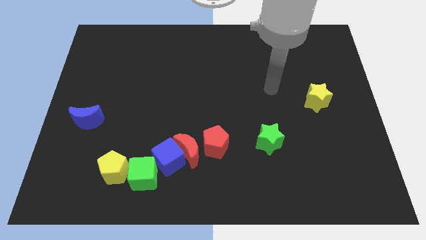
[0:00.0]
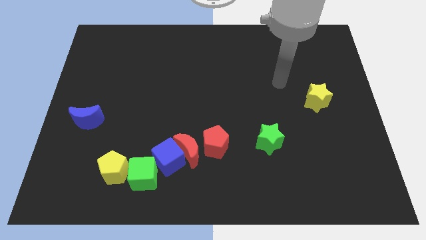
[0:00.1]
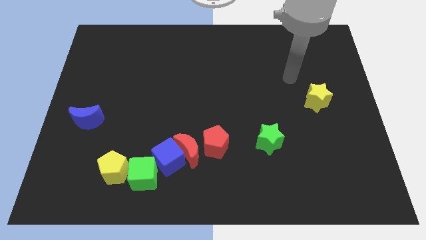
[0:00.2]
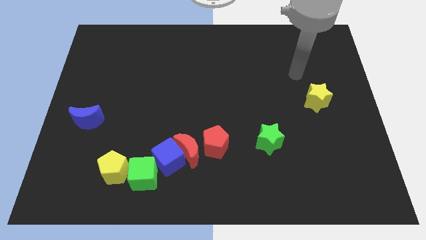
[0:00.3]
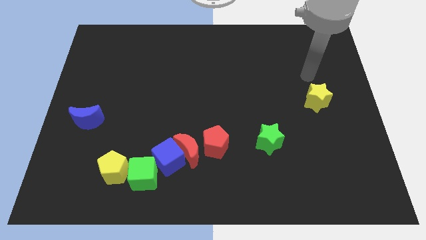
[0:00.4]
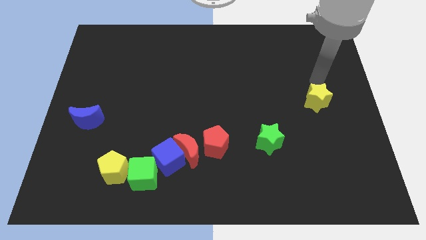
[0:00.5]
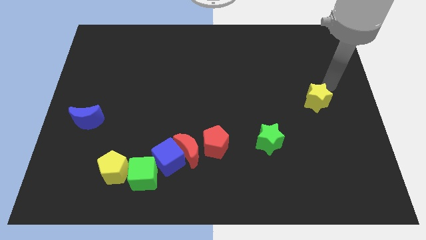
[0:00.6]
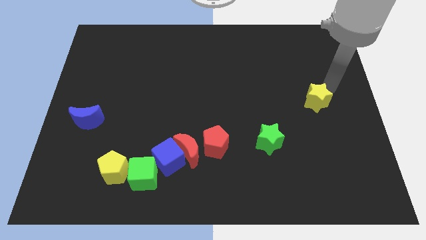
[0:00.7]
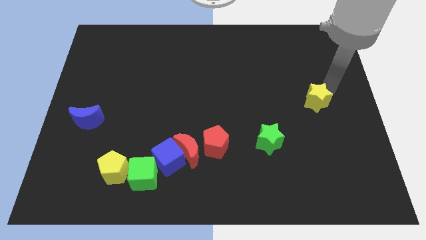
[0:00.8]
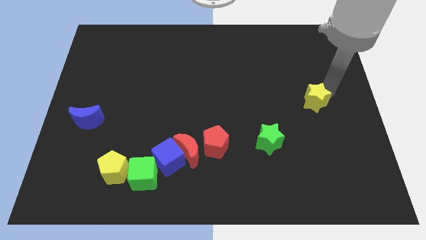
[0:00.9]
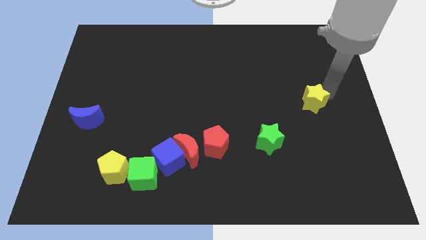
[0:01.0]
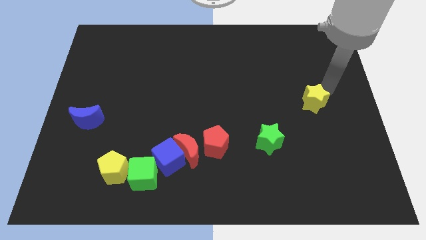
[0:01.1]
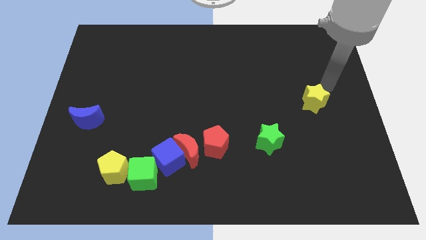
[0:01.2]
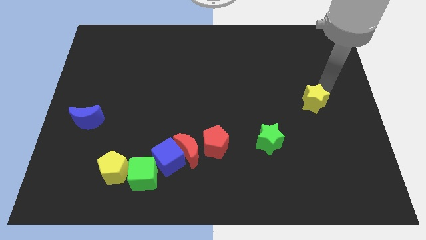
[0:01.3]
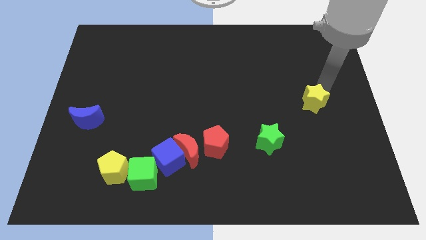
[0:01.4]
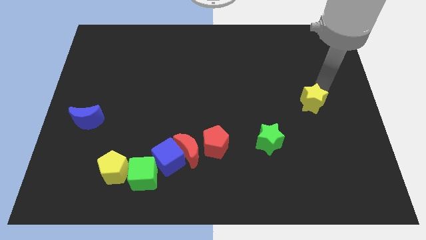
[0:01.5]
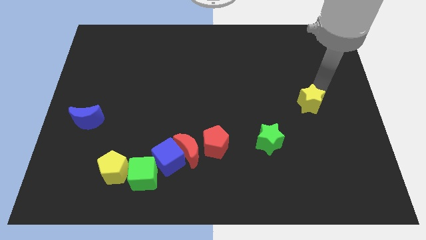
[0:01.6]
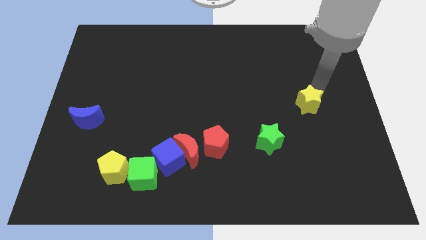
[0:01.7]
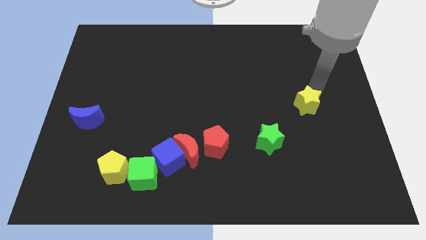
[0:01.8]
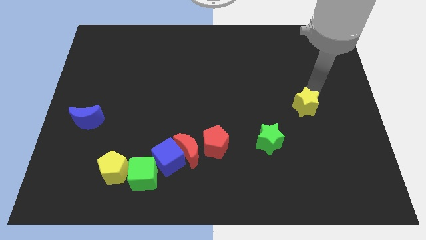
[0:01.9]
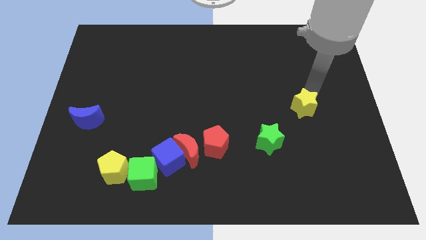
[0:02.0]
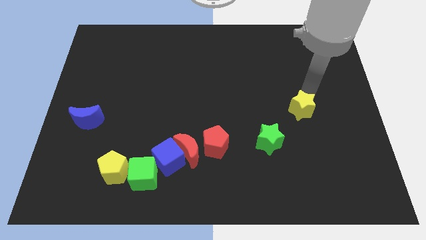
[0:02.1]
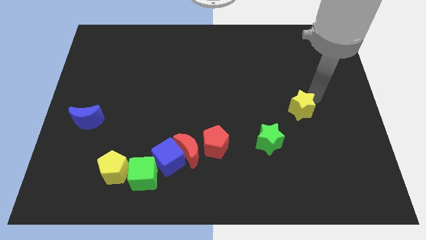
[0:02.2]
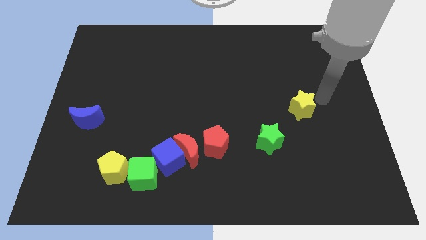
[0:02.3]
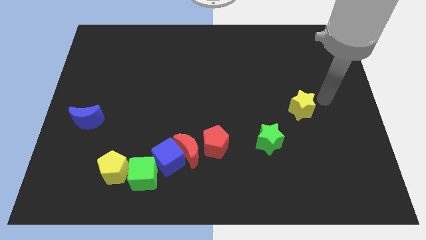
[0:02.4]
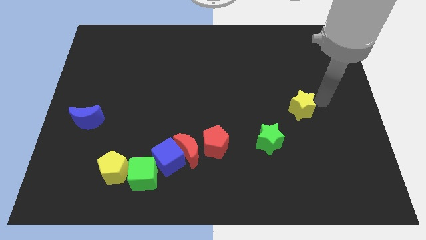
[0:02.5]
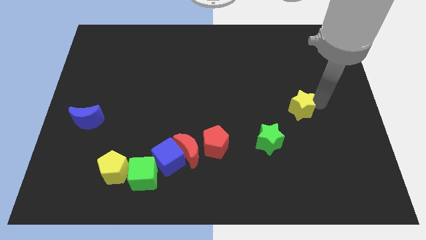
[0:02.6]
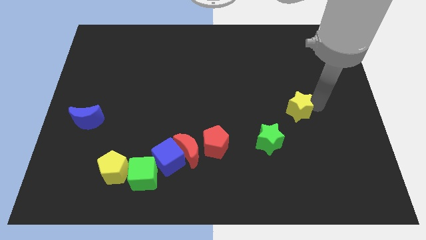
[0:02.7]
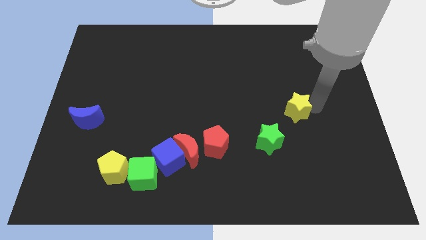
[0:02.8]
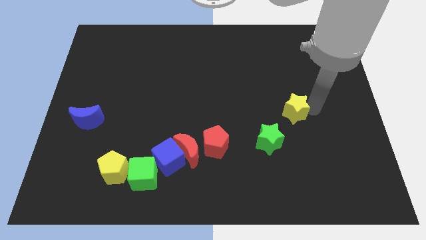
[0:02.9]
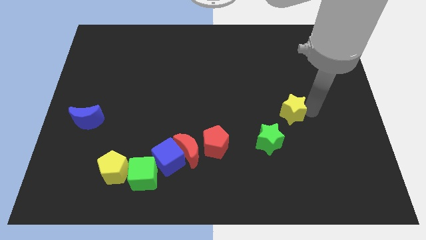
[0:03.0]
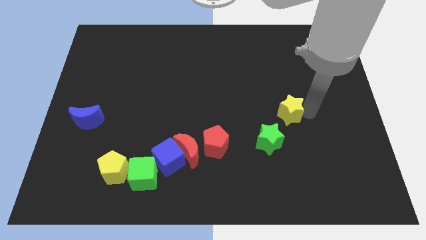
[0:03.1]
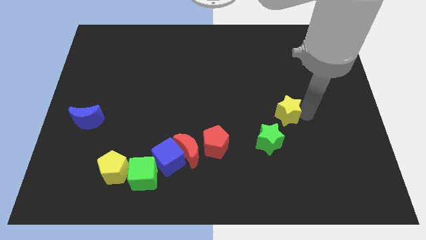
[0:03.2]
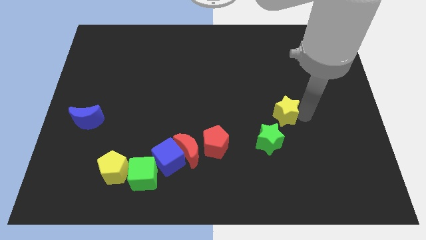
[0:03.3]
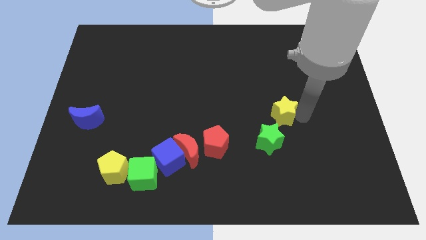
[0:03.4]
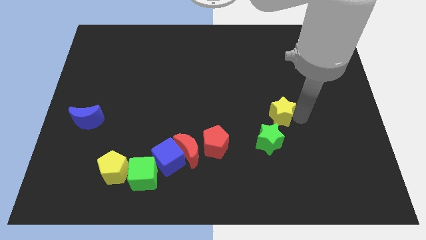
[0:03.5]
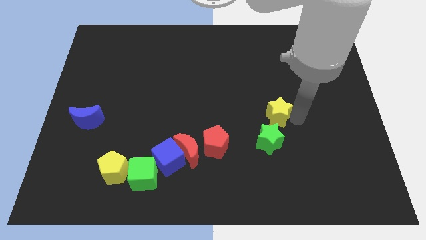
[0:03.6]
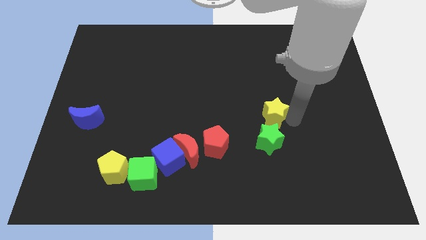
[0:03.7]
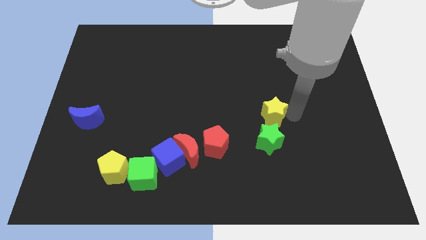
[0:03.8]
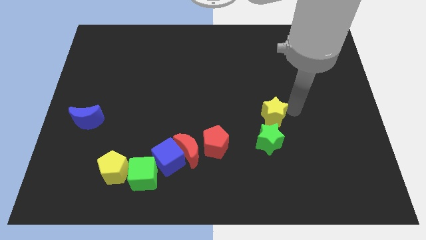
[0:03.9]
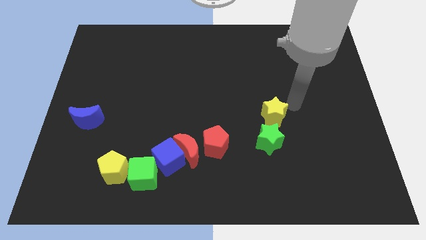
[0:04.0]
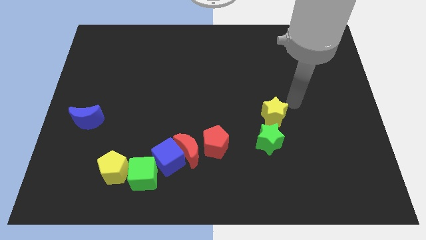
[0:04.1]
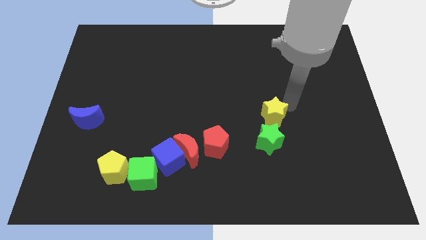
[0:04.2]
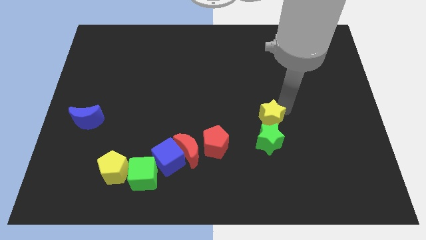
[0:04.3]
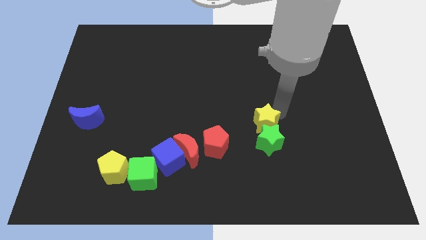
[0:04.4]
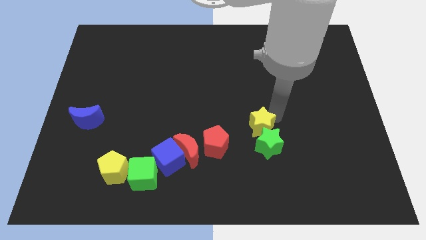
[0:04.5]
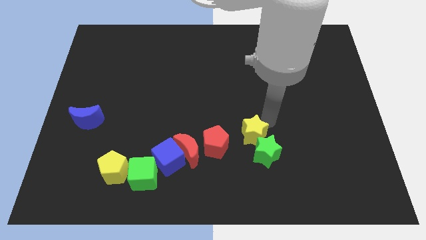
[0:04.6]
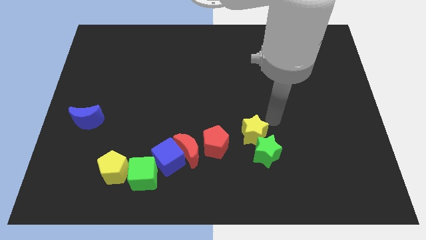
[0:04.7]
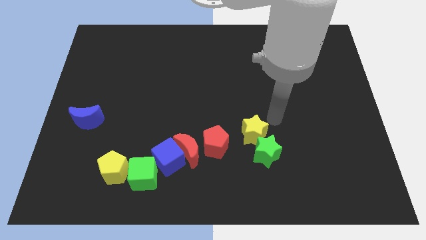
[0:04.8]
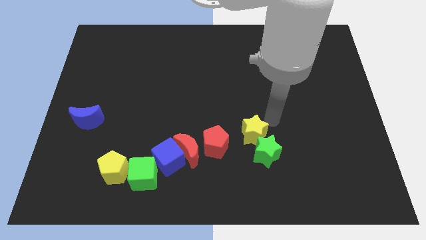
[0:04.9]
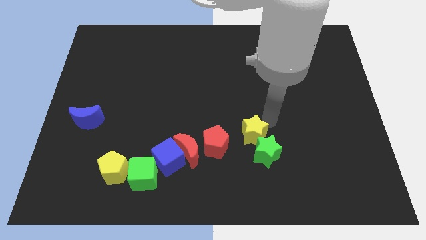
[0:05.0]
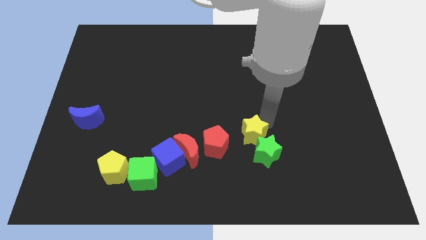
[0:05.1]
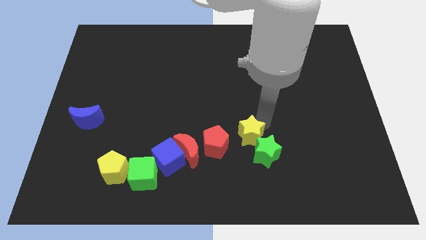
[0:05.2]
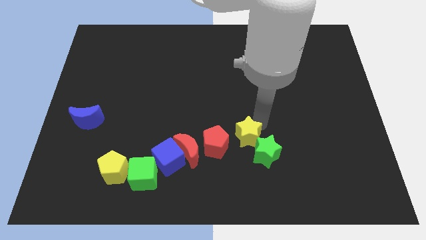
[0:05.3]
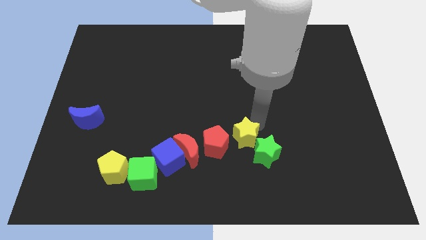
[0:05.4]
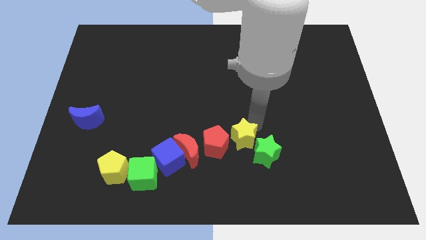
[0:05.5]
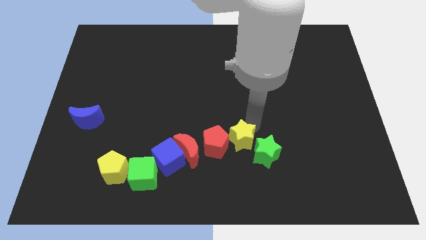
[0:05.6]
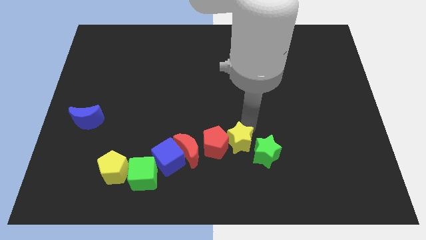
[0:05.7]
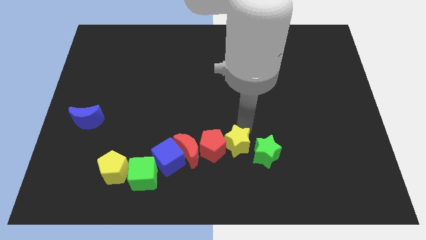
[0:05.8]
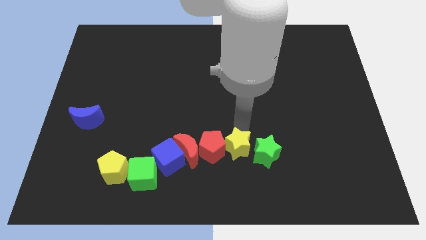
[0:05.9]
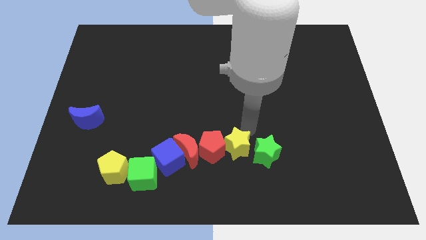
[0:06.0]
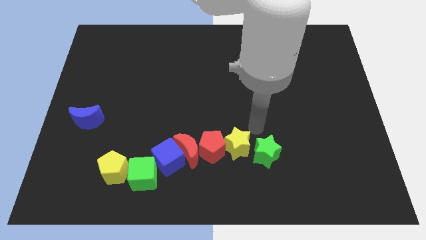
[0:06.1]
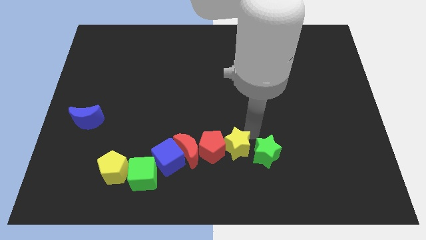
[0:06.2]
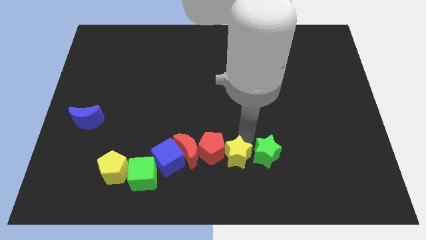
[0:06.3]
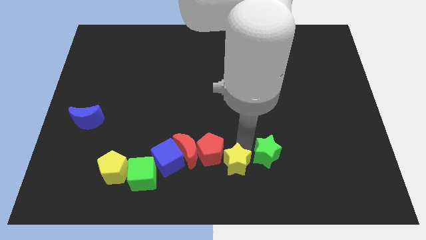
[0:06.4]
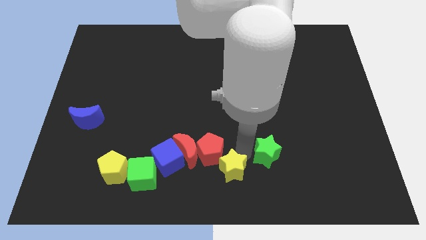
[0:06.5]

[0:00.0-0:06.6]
slide the yellow star to the bottom right of the red moon

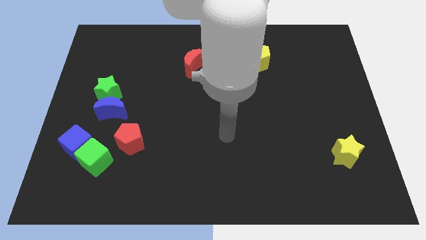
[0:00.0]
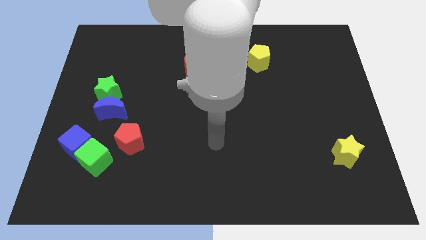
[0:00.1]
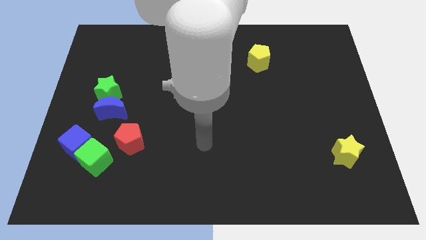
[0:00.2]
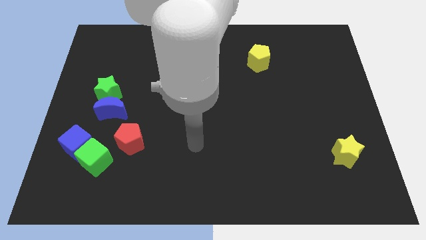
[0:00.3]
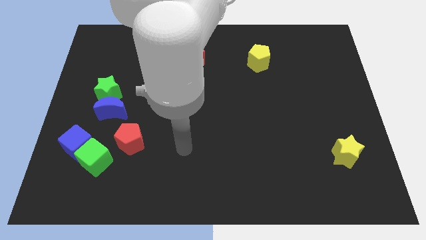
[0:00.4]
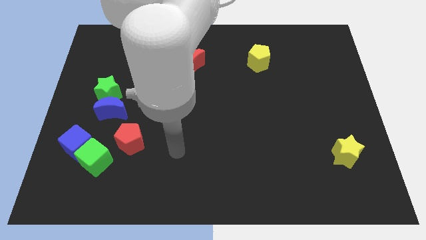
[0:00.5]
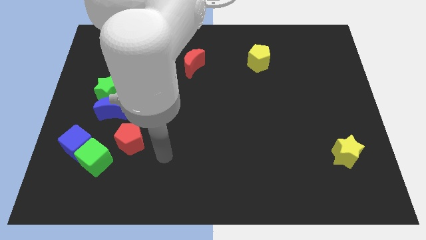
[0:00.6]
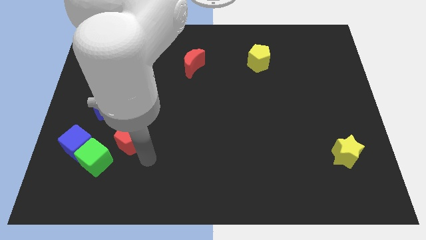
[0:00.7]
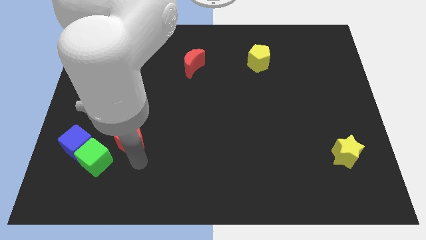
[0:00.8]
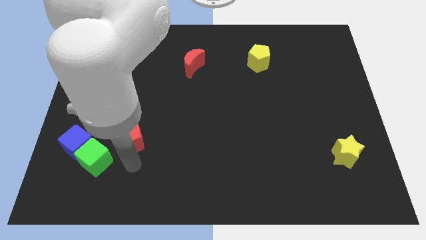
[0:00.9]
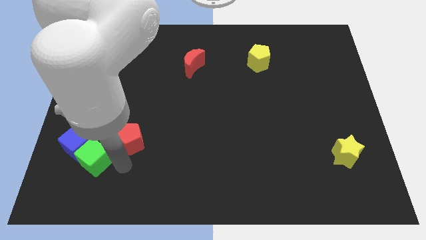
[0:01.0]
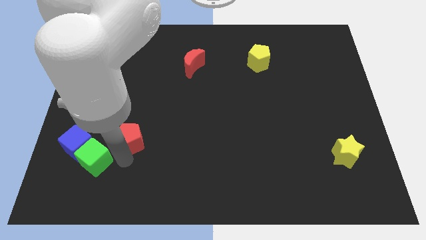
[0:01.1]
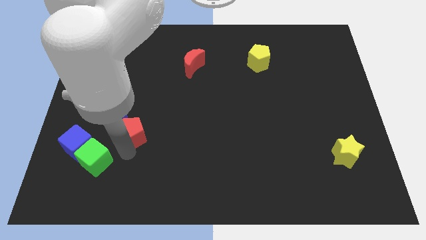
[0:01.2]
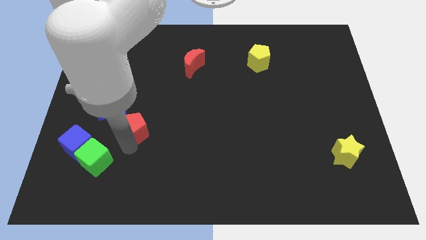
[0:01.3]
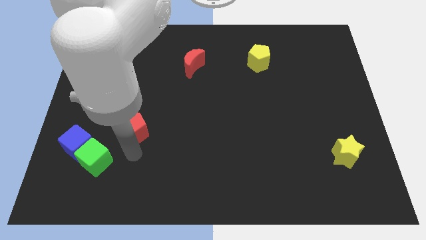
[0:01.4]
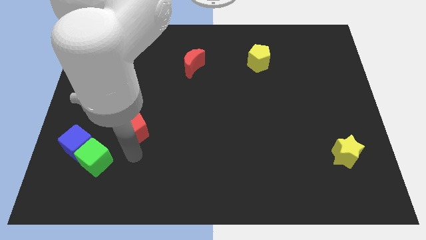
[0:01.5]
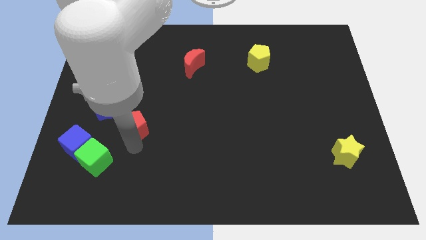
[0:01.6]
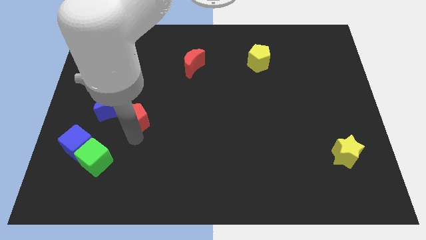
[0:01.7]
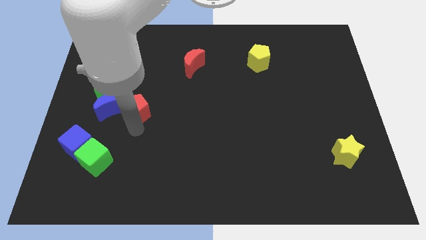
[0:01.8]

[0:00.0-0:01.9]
move the red pentagon diagonally up and to the right of the blue moon
